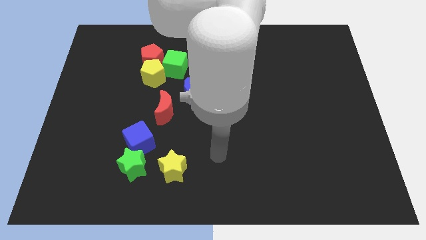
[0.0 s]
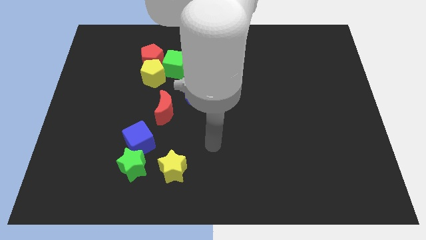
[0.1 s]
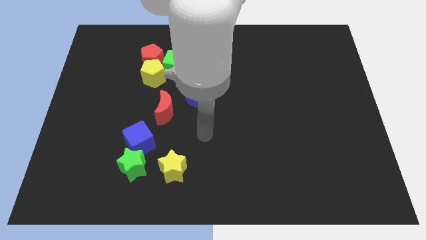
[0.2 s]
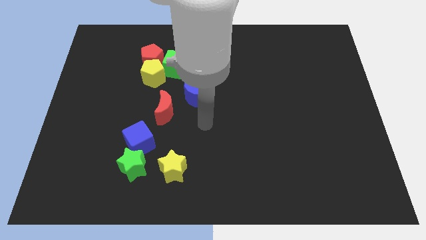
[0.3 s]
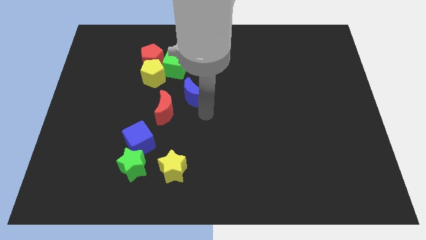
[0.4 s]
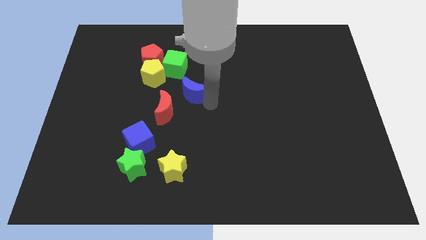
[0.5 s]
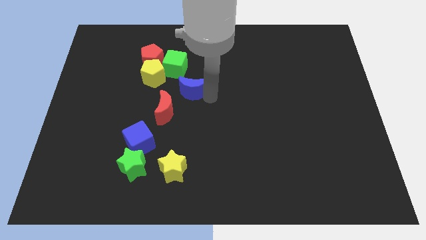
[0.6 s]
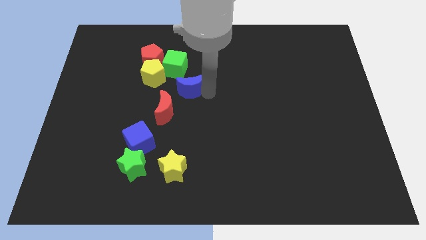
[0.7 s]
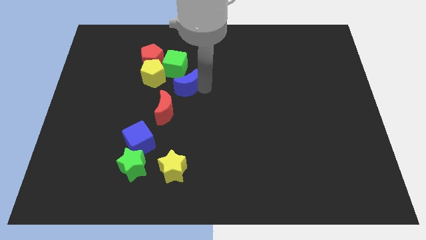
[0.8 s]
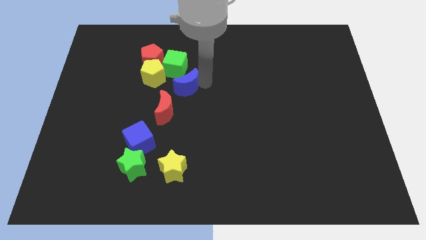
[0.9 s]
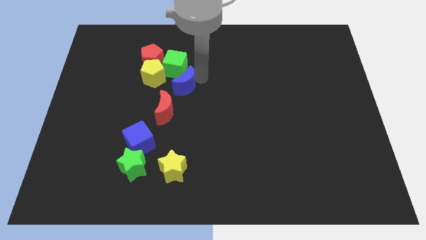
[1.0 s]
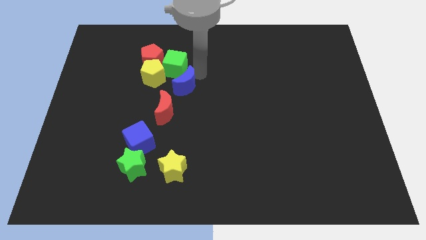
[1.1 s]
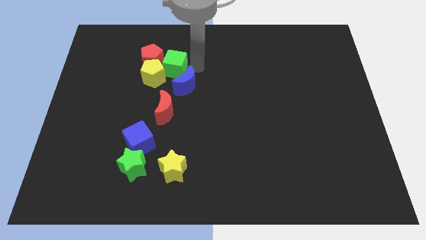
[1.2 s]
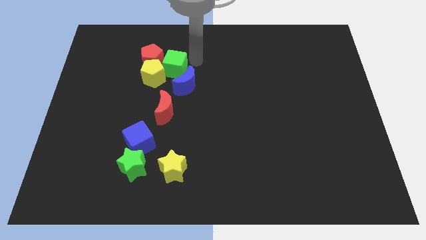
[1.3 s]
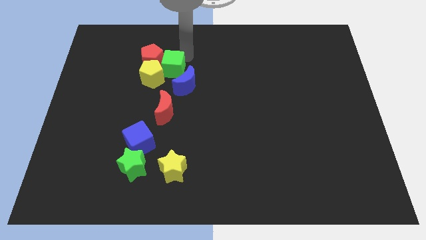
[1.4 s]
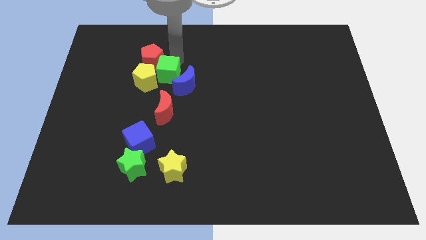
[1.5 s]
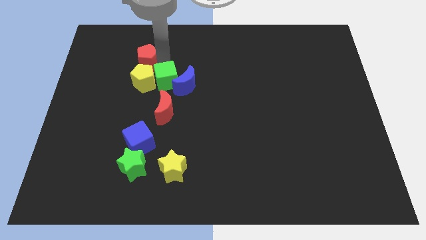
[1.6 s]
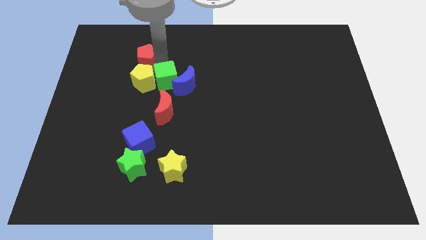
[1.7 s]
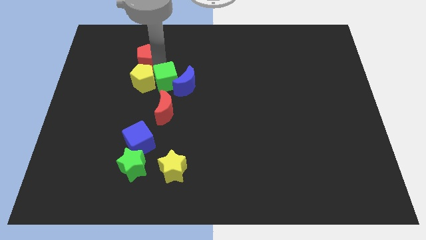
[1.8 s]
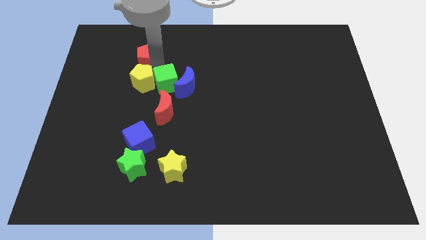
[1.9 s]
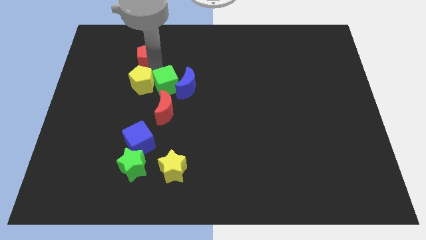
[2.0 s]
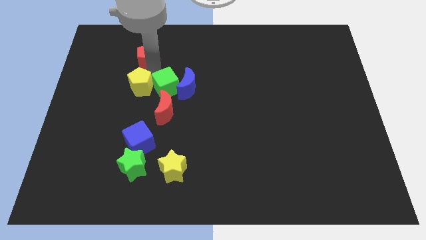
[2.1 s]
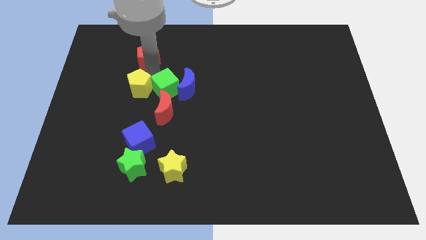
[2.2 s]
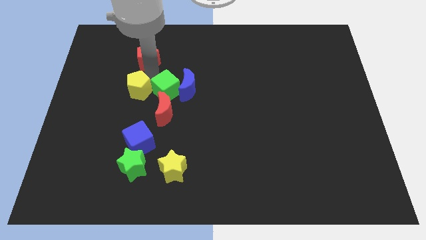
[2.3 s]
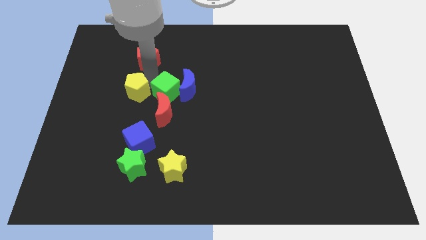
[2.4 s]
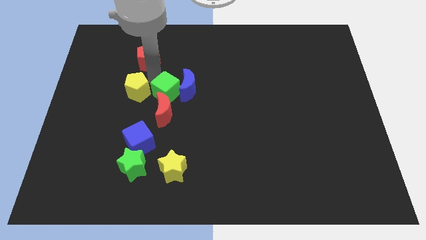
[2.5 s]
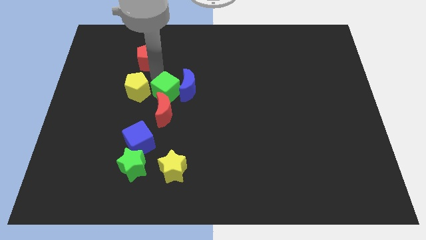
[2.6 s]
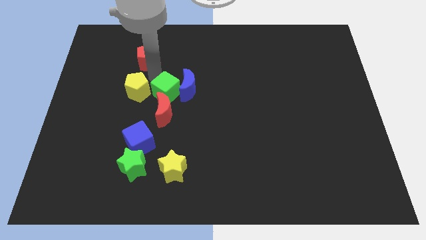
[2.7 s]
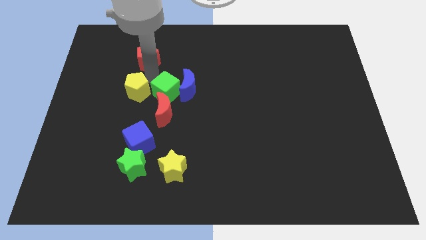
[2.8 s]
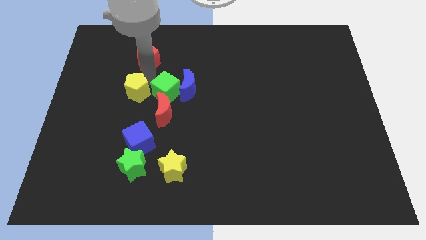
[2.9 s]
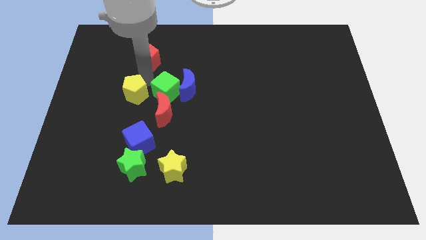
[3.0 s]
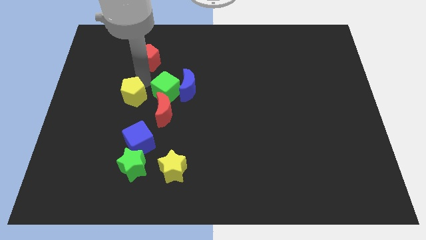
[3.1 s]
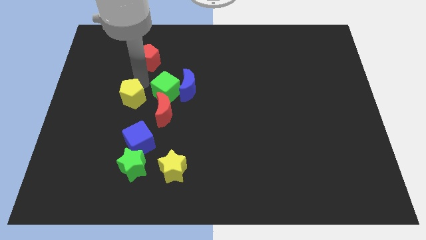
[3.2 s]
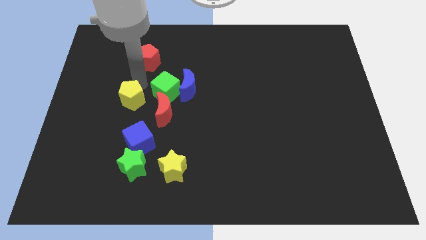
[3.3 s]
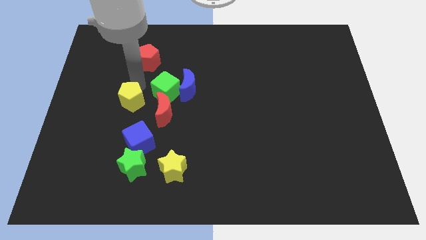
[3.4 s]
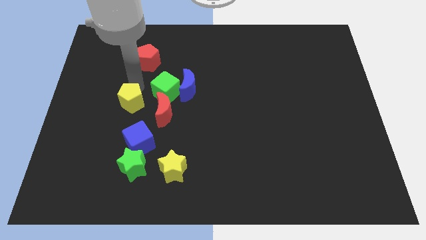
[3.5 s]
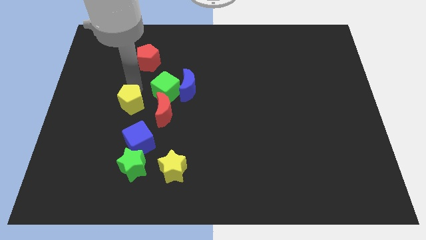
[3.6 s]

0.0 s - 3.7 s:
pull the yellow pentagon apart from the red pentagon and green cube

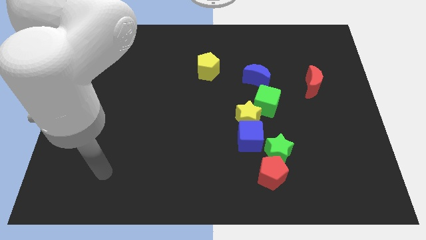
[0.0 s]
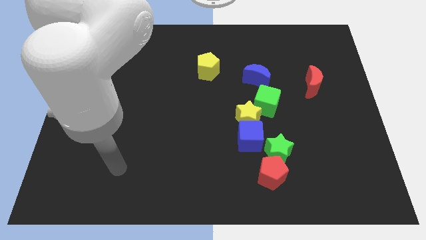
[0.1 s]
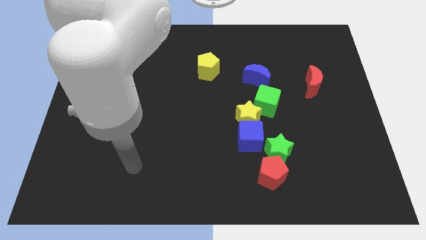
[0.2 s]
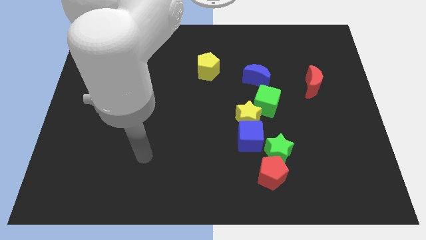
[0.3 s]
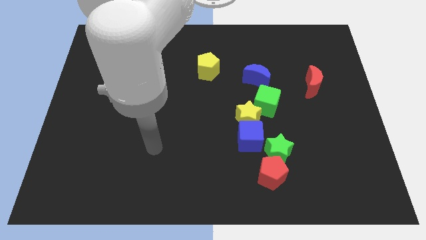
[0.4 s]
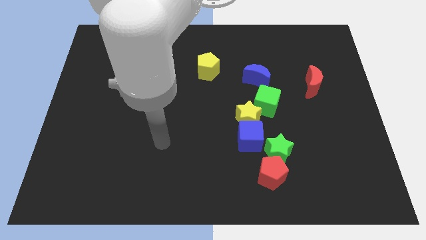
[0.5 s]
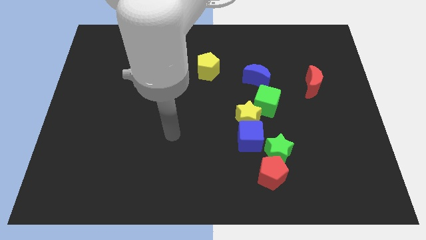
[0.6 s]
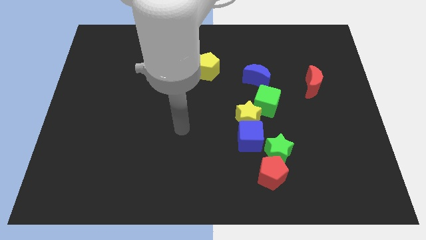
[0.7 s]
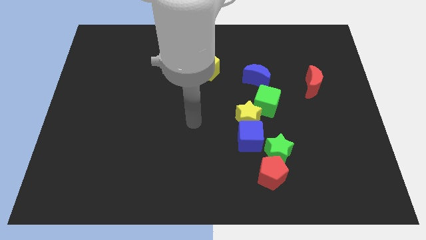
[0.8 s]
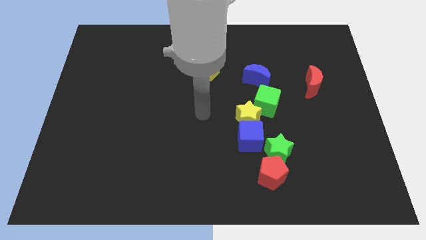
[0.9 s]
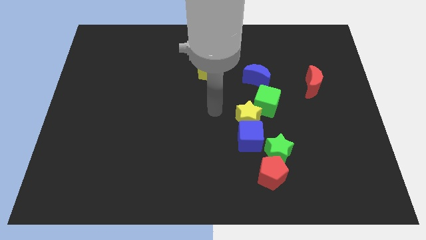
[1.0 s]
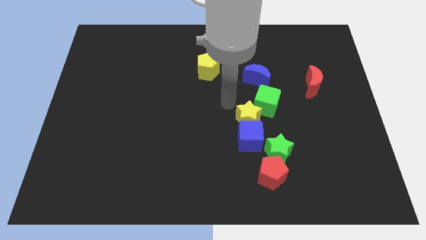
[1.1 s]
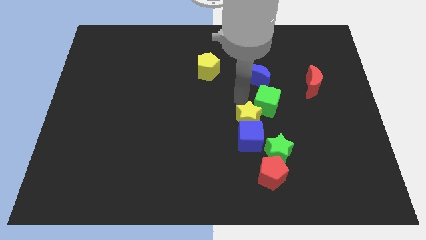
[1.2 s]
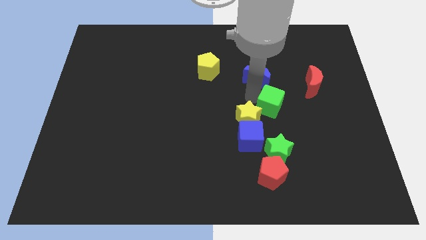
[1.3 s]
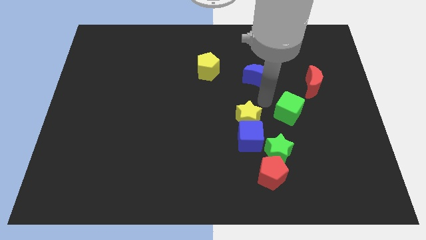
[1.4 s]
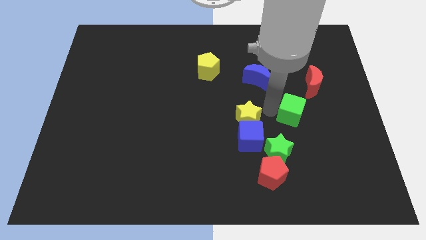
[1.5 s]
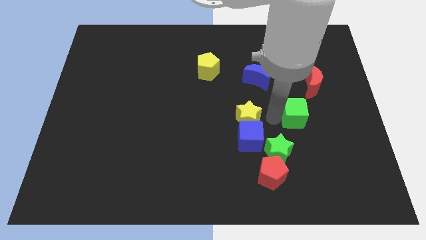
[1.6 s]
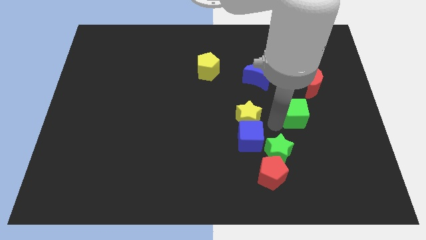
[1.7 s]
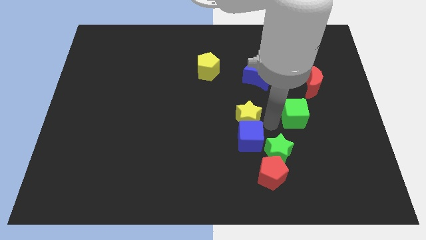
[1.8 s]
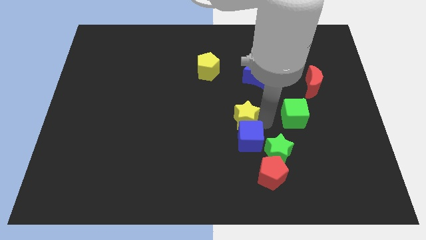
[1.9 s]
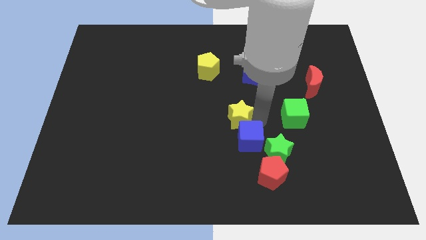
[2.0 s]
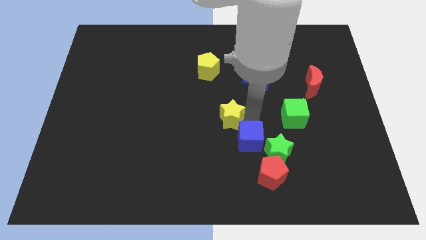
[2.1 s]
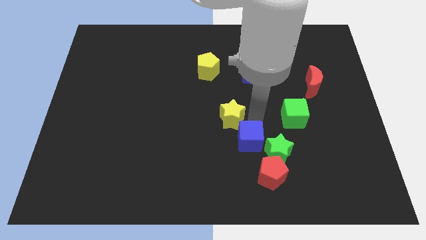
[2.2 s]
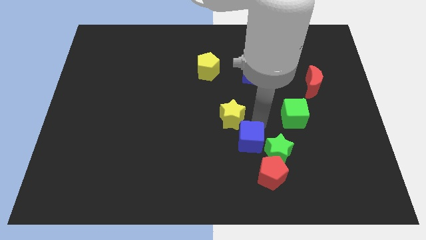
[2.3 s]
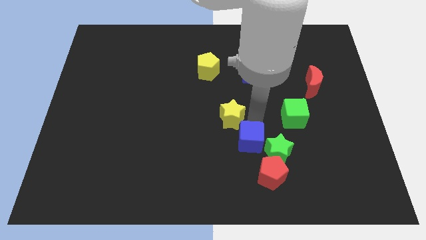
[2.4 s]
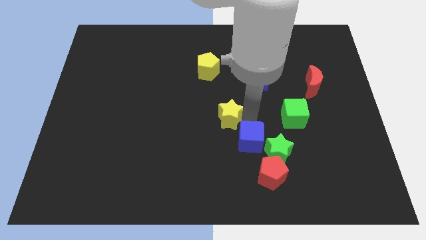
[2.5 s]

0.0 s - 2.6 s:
separate the yellow star from the blue cube and green cube

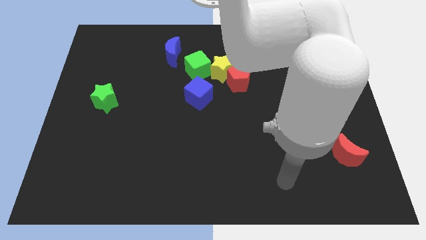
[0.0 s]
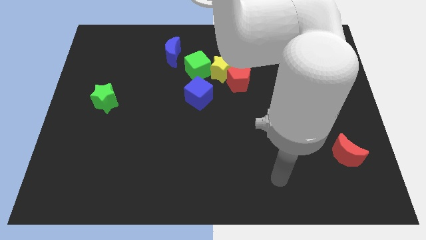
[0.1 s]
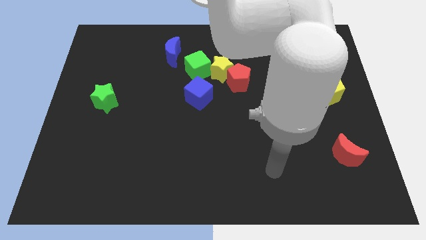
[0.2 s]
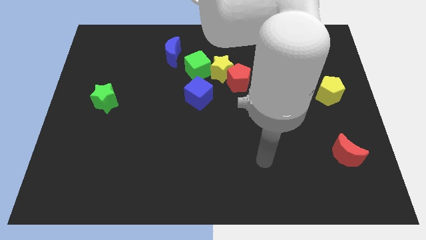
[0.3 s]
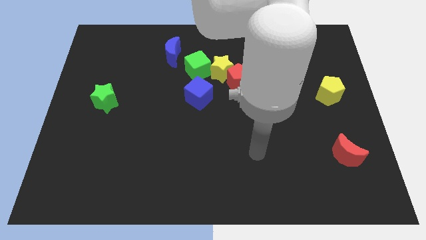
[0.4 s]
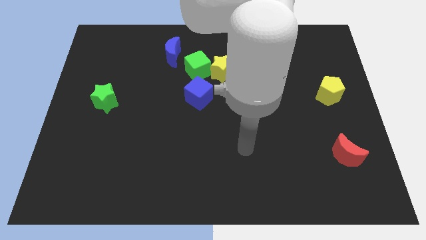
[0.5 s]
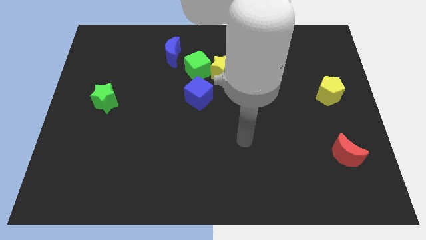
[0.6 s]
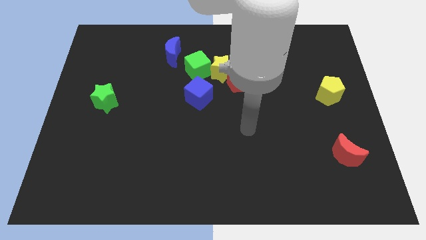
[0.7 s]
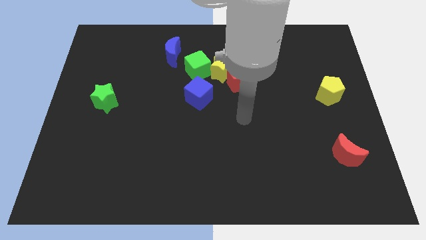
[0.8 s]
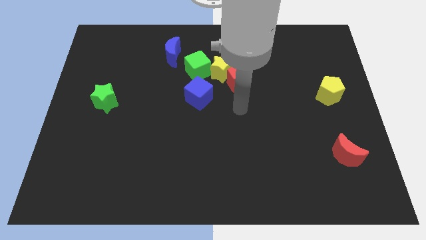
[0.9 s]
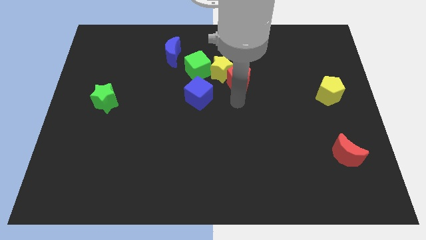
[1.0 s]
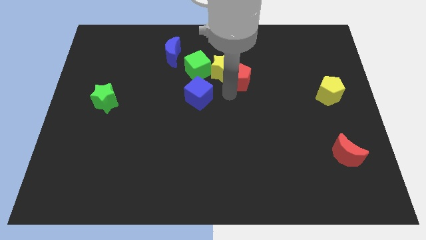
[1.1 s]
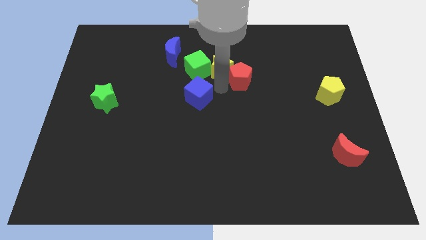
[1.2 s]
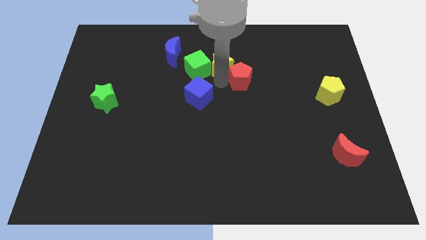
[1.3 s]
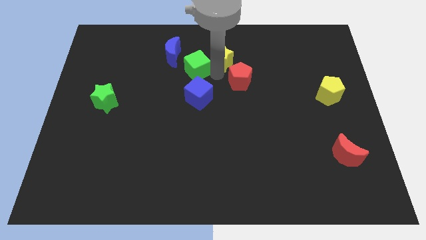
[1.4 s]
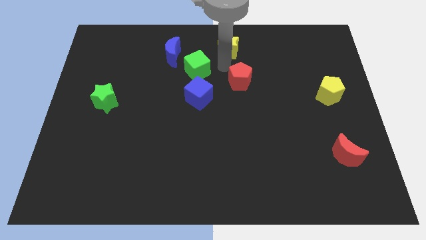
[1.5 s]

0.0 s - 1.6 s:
pull the red pentagon apart from the yellow star

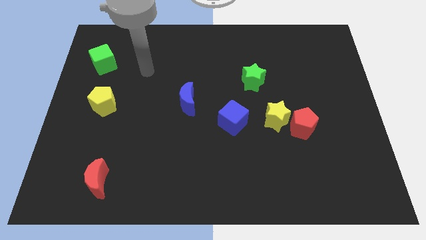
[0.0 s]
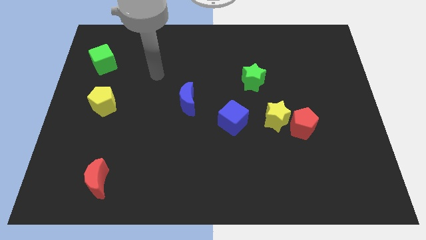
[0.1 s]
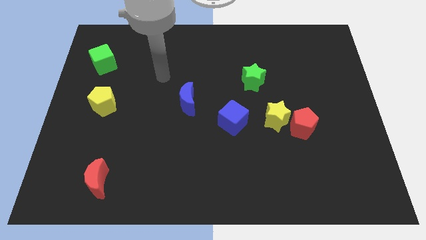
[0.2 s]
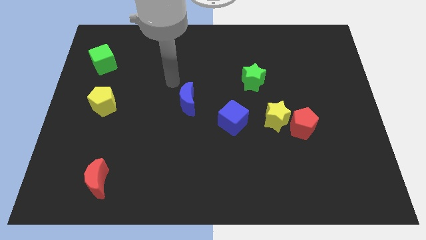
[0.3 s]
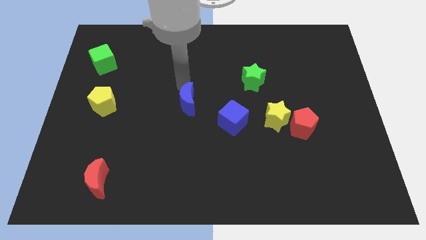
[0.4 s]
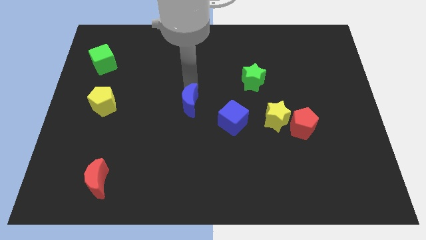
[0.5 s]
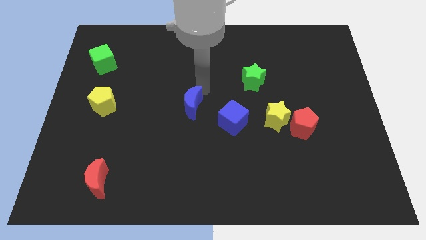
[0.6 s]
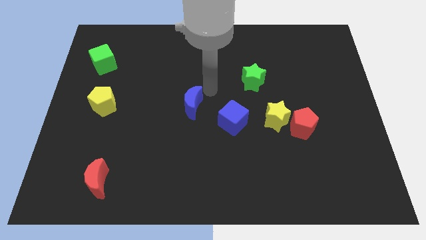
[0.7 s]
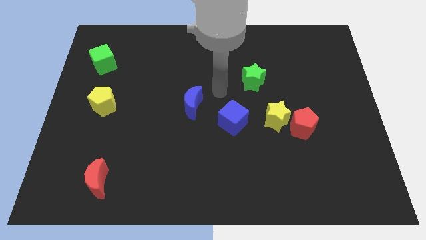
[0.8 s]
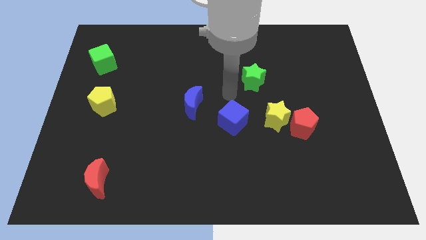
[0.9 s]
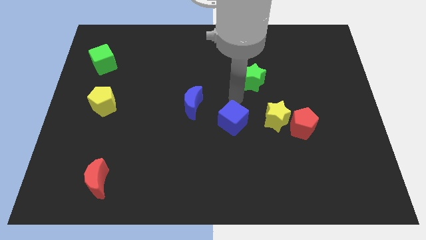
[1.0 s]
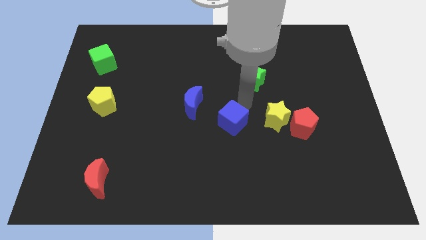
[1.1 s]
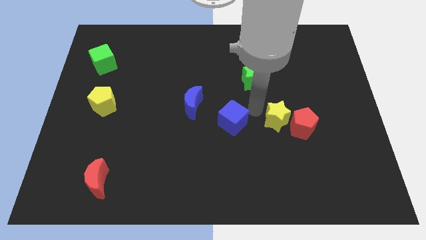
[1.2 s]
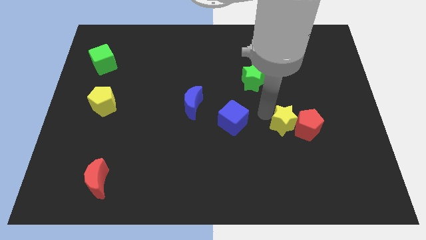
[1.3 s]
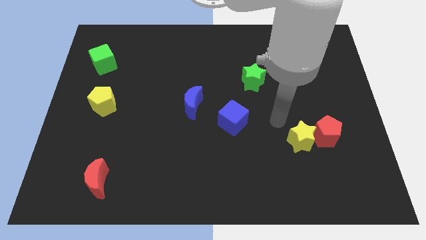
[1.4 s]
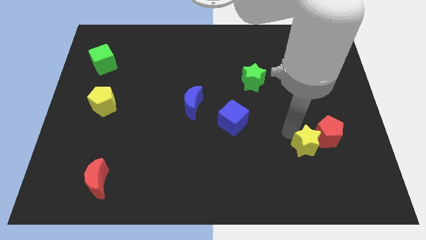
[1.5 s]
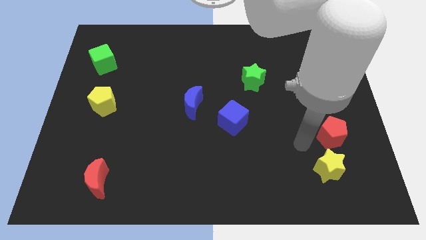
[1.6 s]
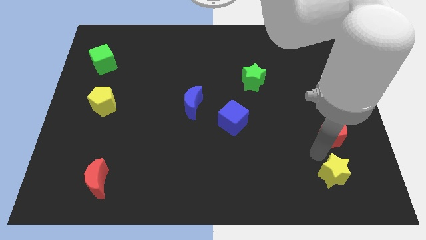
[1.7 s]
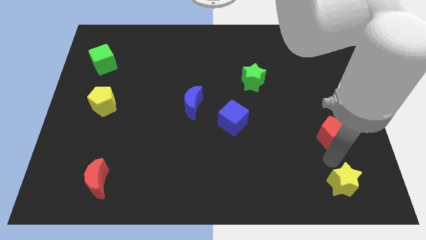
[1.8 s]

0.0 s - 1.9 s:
move the red pentagon away from the yellow star
